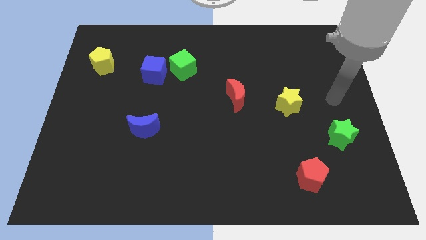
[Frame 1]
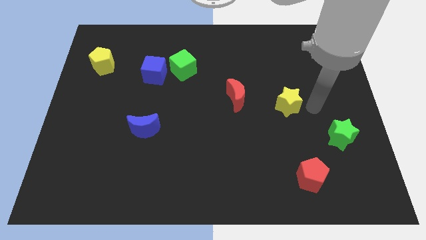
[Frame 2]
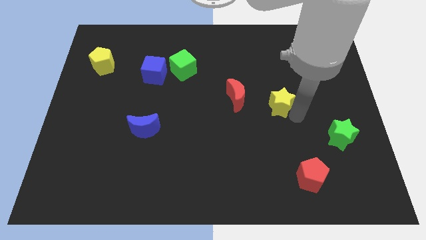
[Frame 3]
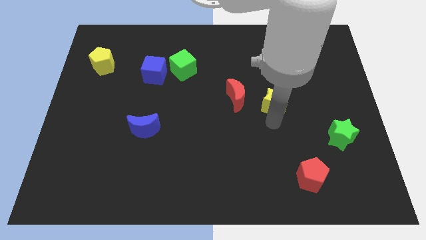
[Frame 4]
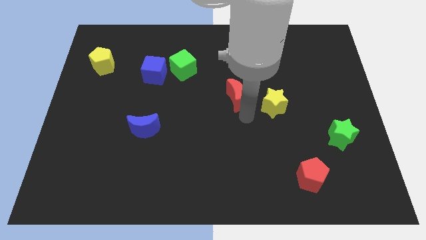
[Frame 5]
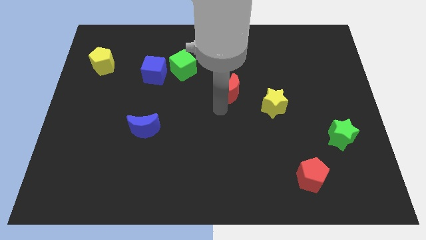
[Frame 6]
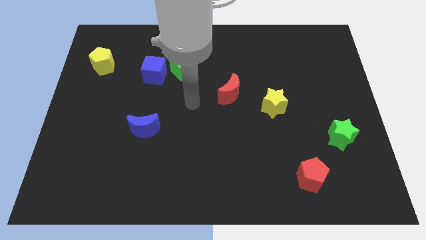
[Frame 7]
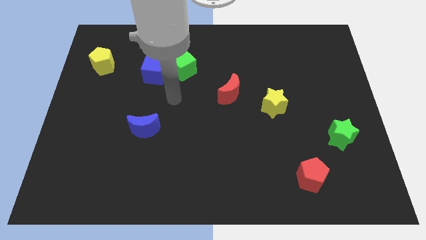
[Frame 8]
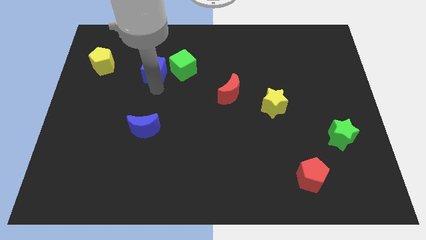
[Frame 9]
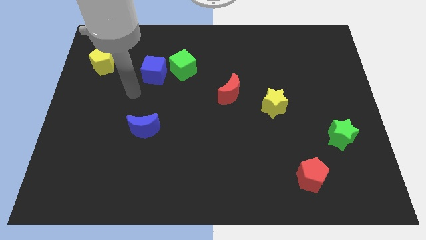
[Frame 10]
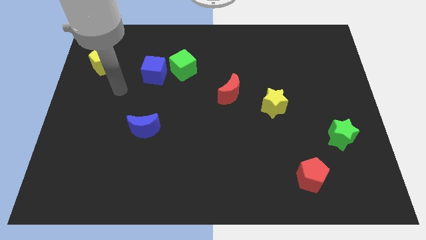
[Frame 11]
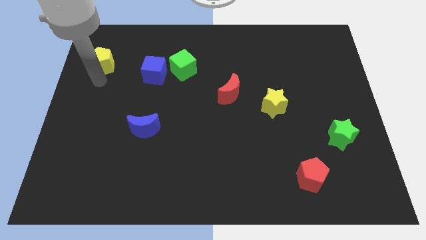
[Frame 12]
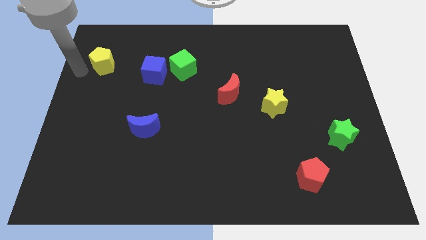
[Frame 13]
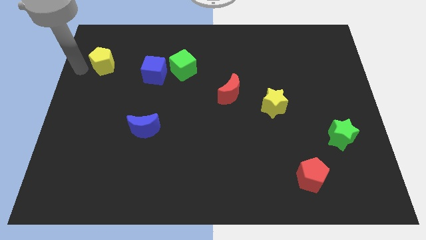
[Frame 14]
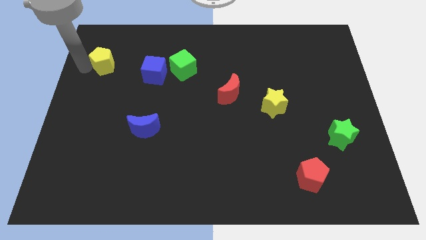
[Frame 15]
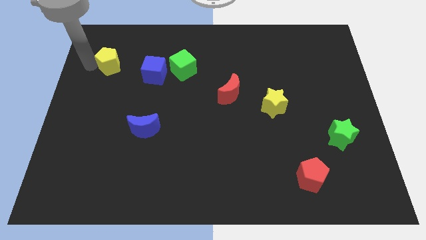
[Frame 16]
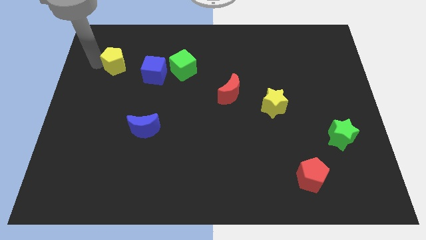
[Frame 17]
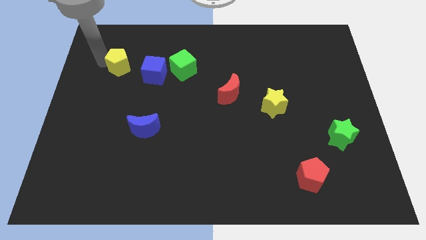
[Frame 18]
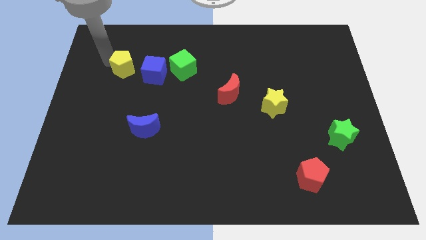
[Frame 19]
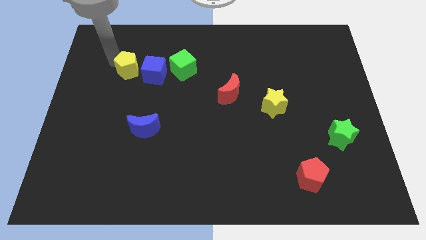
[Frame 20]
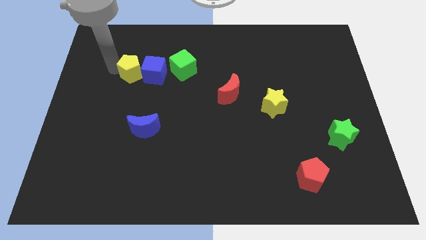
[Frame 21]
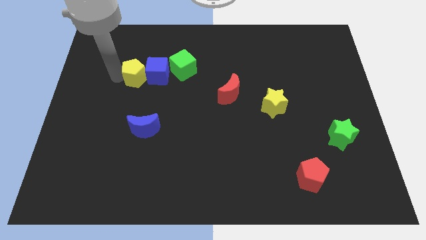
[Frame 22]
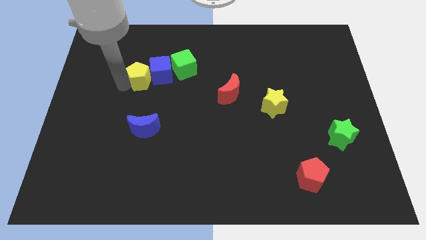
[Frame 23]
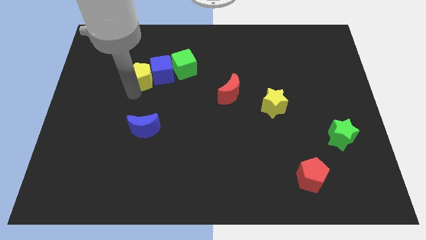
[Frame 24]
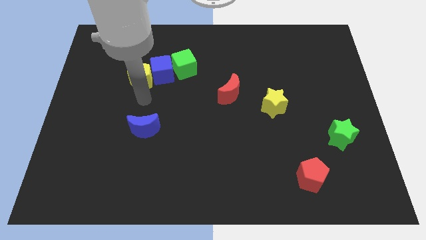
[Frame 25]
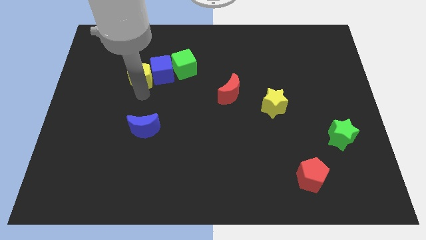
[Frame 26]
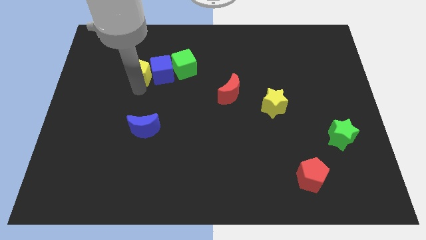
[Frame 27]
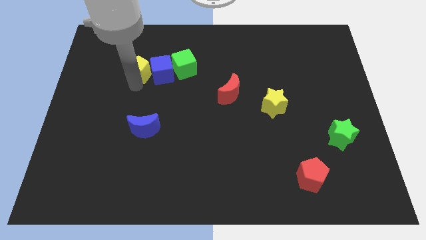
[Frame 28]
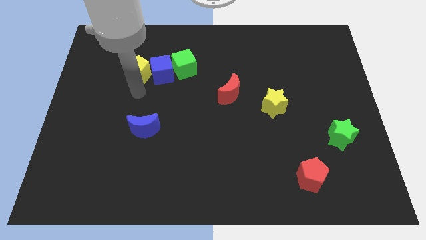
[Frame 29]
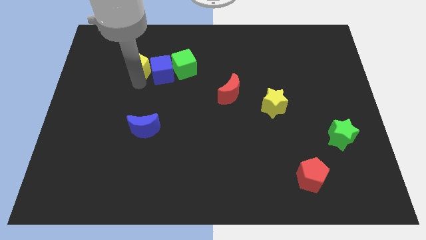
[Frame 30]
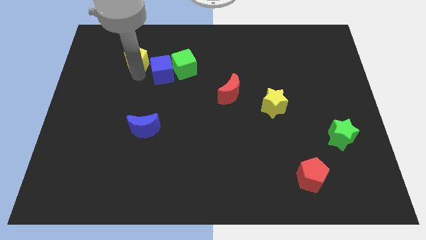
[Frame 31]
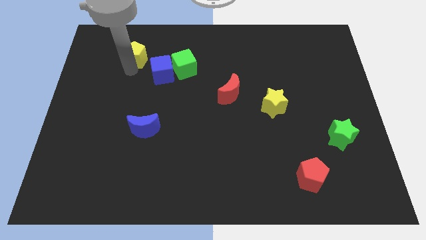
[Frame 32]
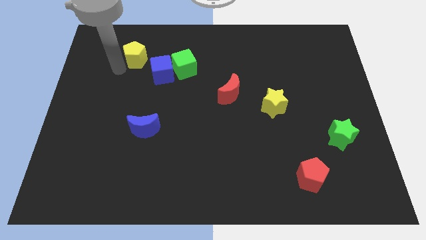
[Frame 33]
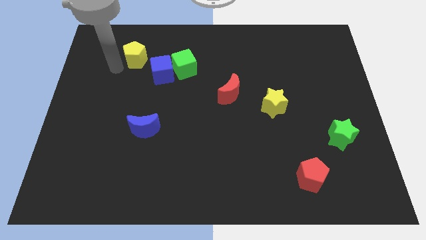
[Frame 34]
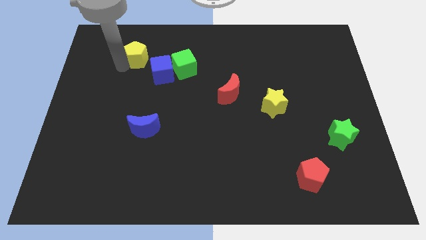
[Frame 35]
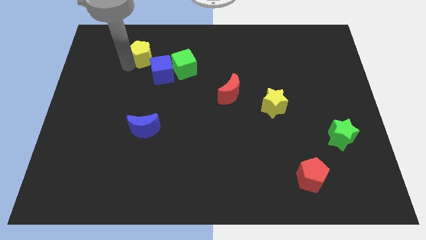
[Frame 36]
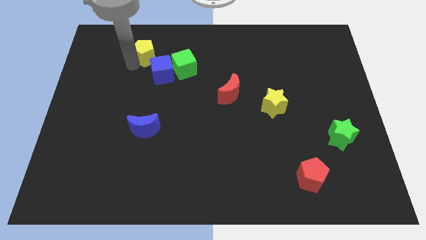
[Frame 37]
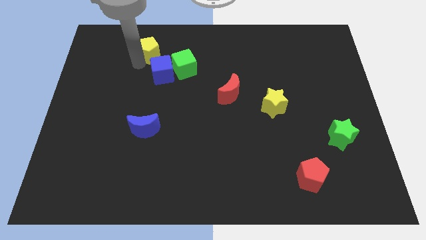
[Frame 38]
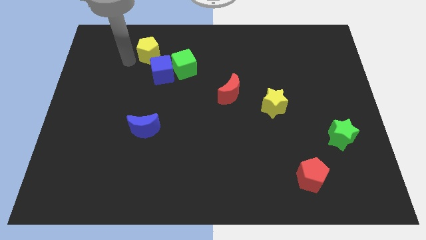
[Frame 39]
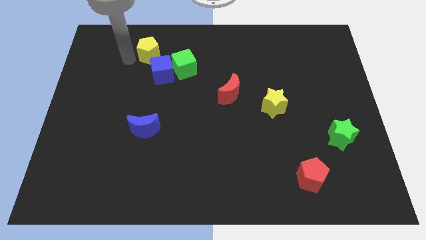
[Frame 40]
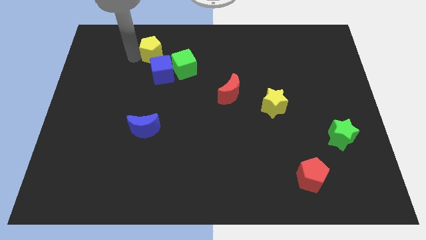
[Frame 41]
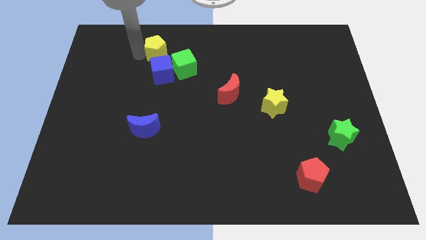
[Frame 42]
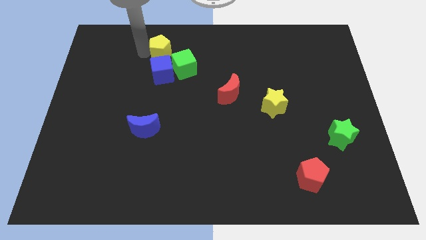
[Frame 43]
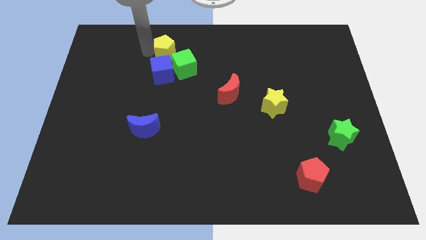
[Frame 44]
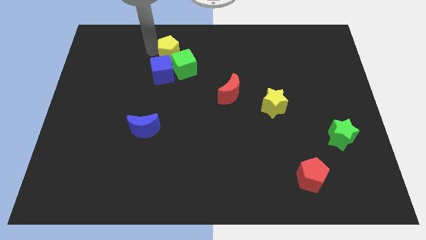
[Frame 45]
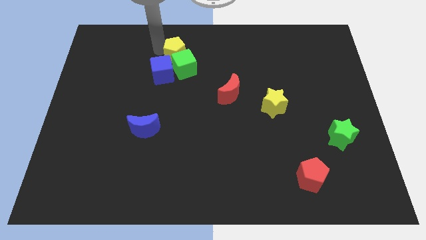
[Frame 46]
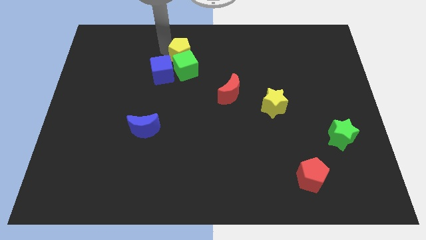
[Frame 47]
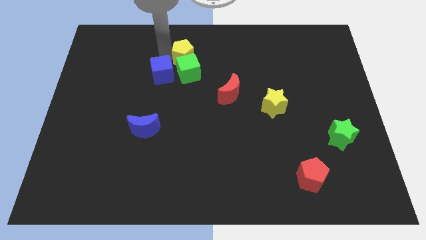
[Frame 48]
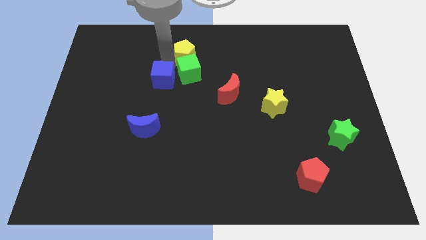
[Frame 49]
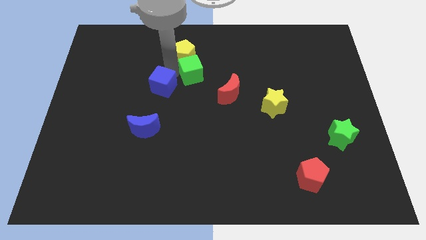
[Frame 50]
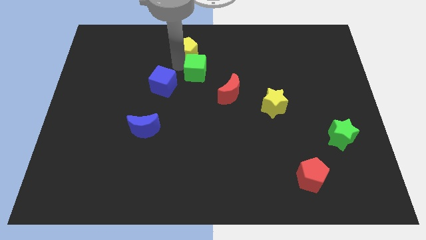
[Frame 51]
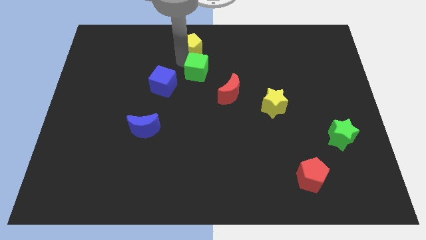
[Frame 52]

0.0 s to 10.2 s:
slide the yellow pentagon to the top side

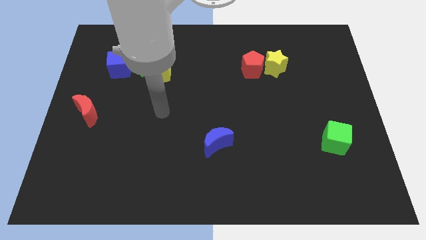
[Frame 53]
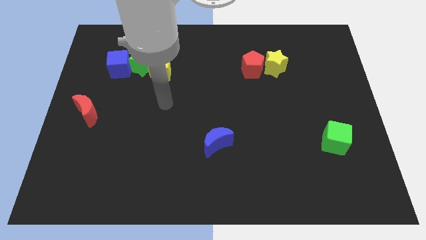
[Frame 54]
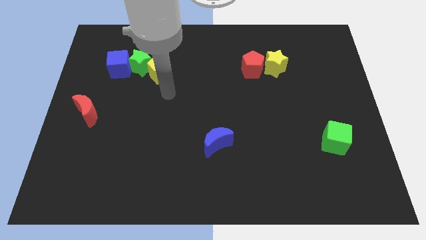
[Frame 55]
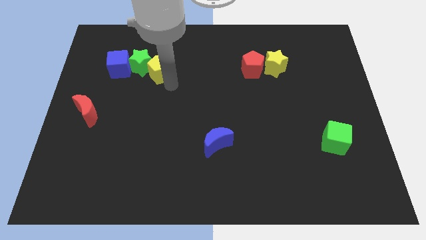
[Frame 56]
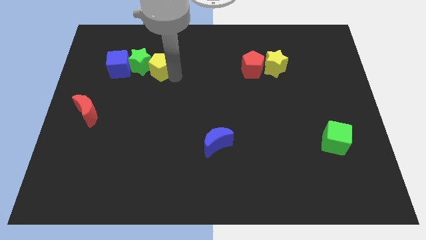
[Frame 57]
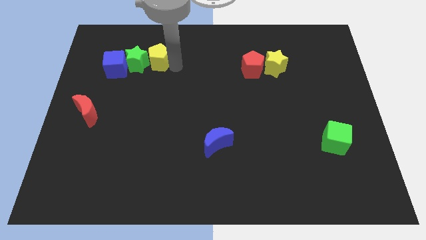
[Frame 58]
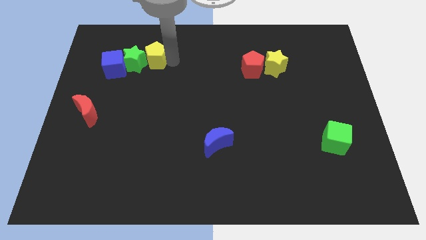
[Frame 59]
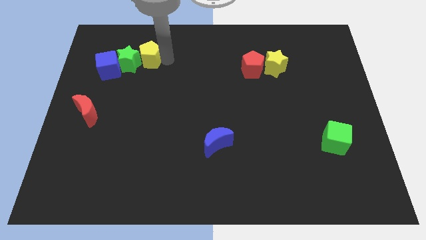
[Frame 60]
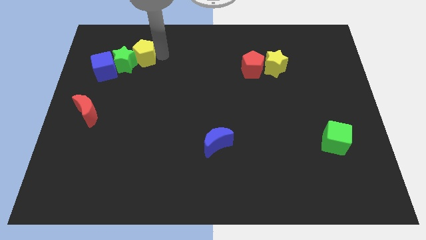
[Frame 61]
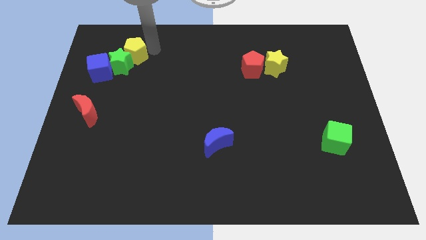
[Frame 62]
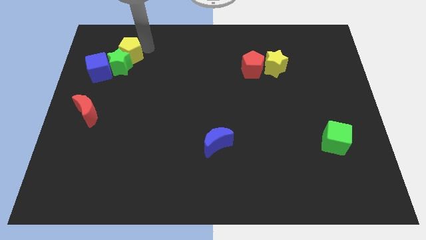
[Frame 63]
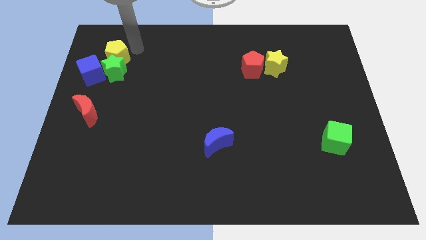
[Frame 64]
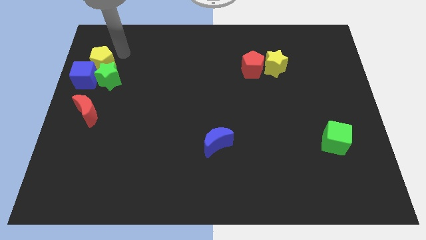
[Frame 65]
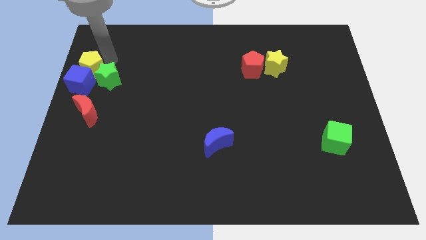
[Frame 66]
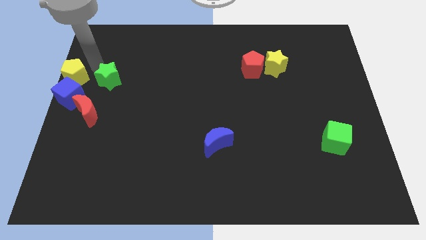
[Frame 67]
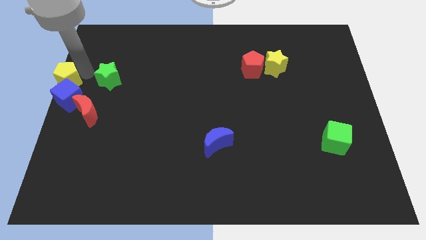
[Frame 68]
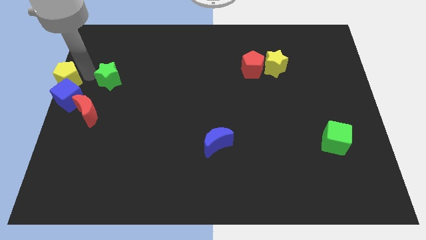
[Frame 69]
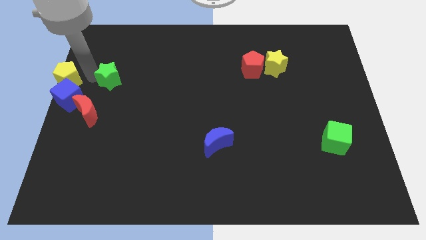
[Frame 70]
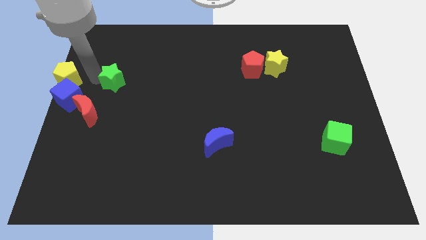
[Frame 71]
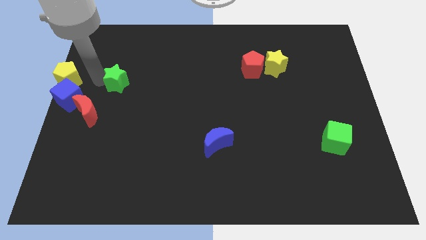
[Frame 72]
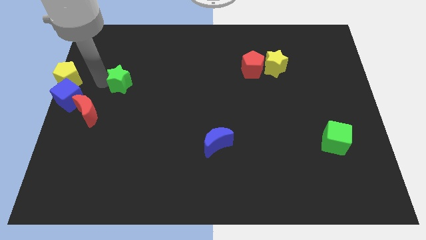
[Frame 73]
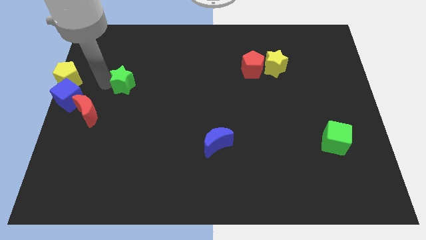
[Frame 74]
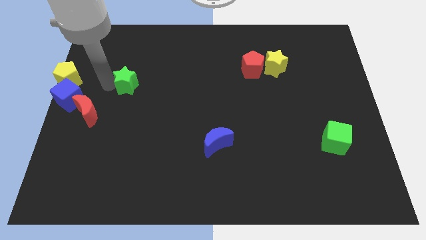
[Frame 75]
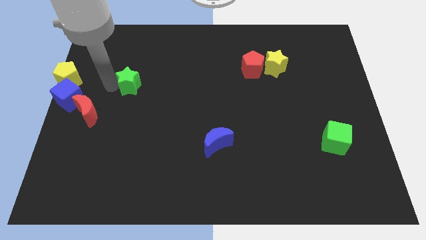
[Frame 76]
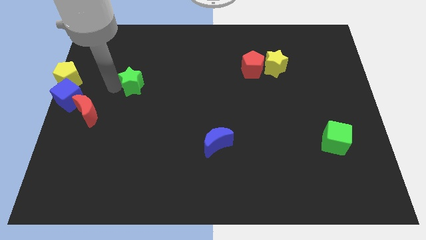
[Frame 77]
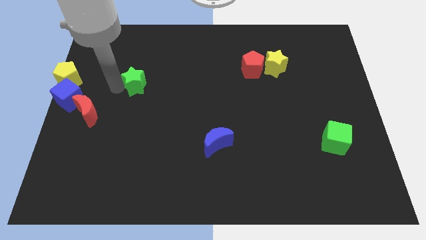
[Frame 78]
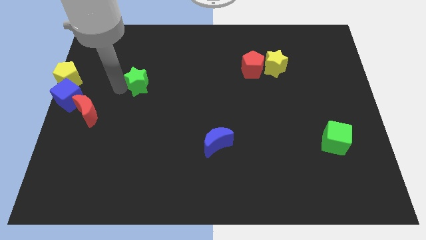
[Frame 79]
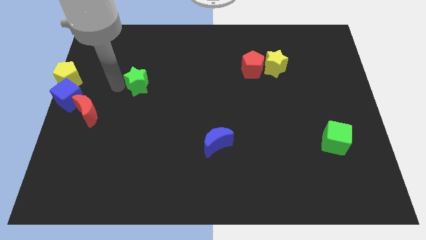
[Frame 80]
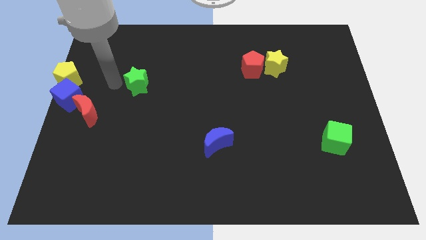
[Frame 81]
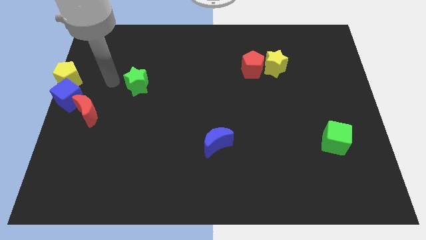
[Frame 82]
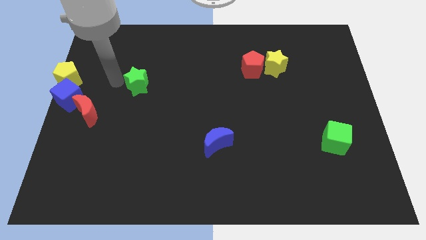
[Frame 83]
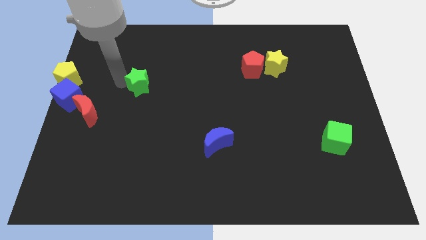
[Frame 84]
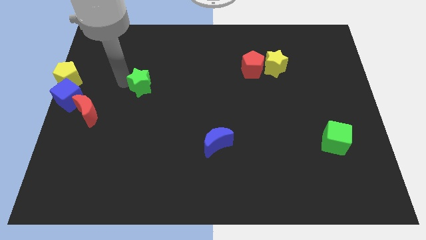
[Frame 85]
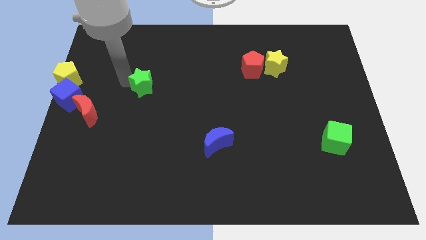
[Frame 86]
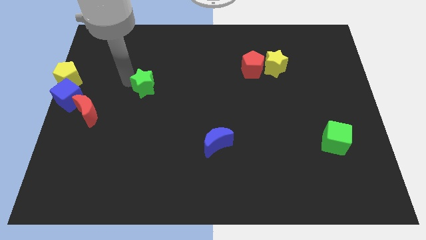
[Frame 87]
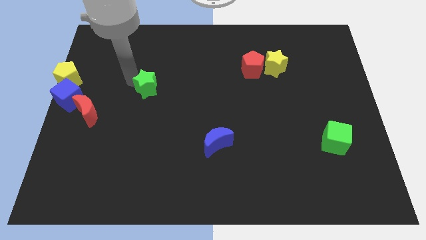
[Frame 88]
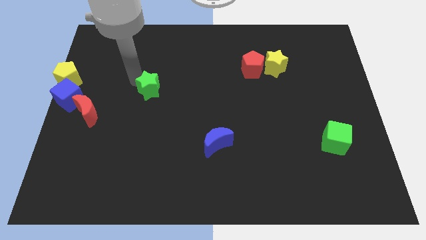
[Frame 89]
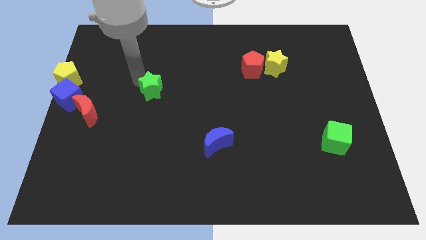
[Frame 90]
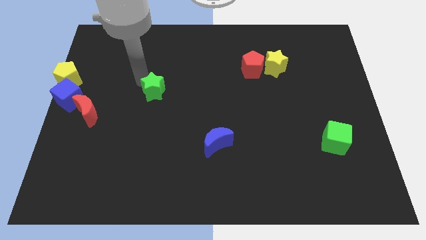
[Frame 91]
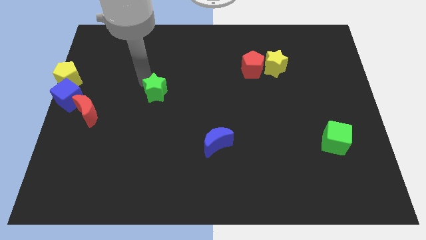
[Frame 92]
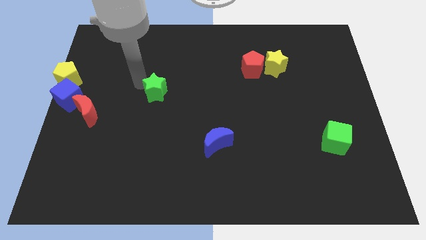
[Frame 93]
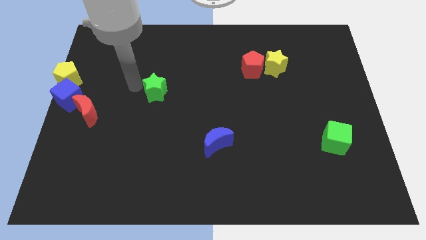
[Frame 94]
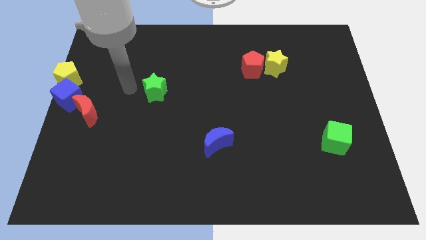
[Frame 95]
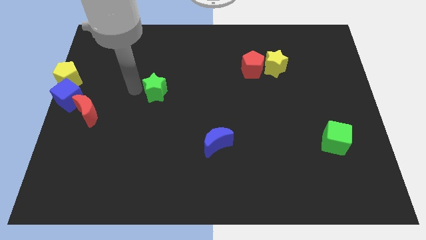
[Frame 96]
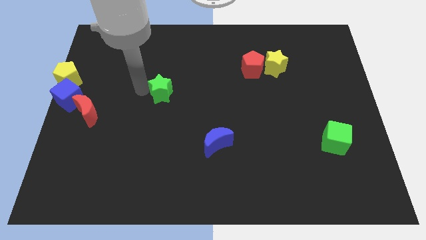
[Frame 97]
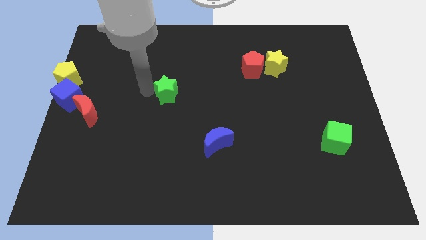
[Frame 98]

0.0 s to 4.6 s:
slide the green star to the center of the board
